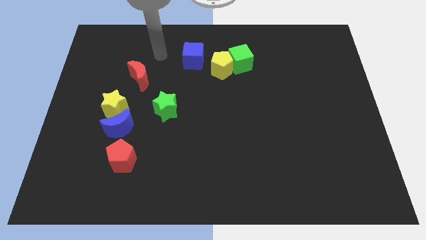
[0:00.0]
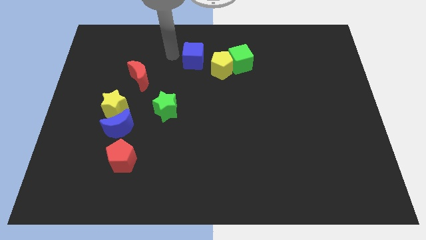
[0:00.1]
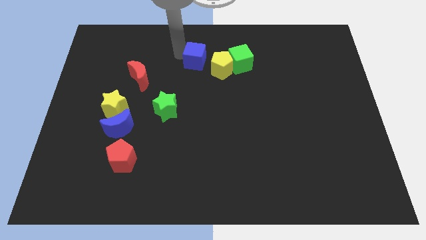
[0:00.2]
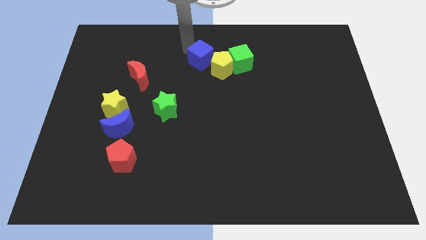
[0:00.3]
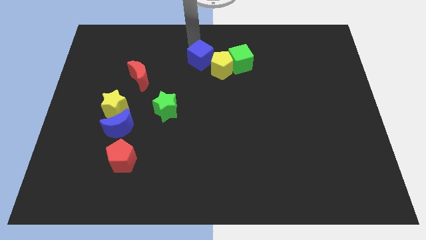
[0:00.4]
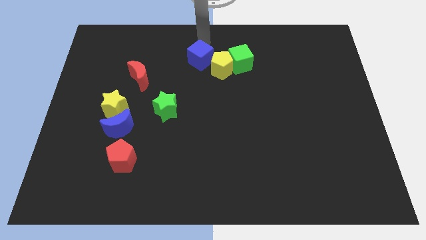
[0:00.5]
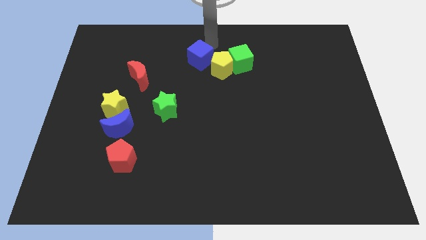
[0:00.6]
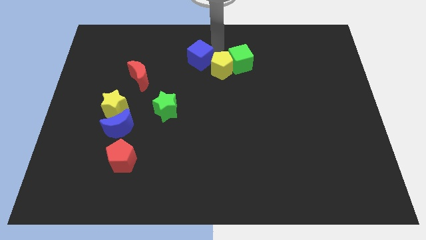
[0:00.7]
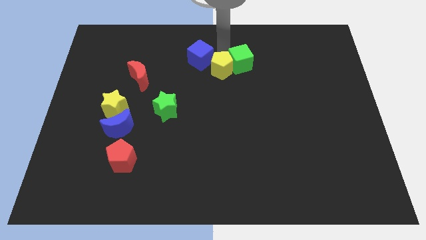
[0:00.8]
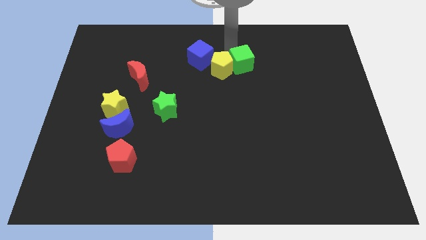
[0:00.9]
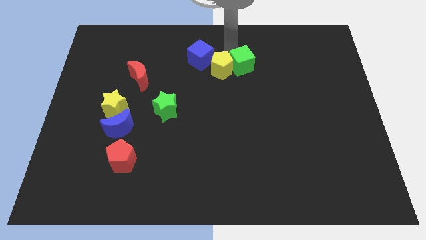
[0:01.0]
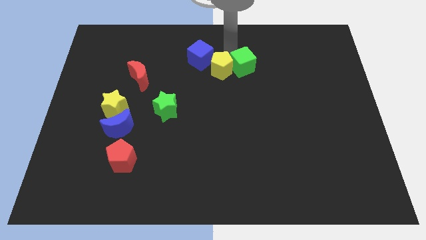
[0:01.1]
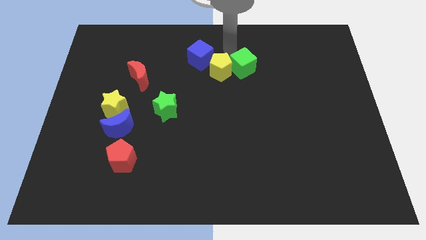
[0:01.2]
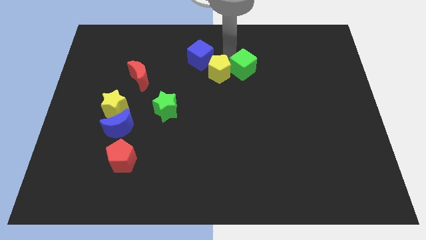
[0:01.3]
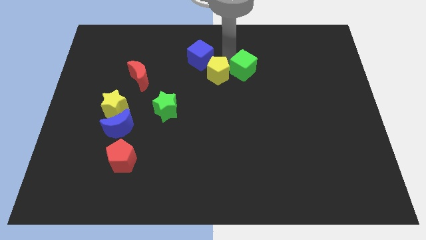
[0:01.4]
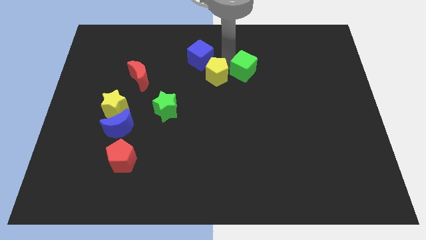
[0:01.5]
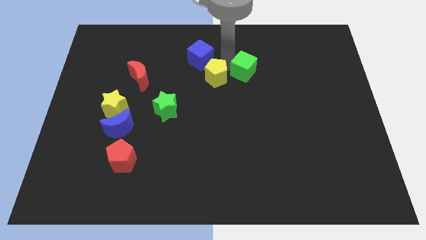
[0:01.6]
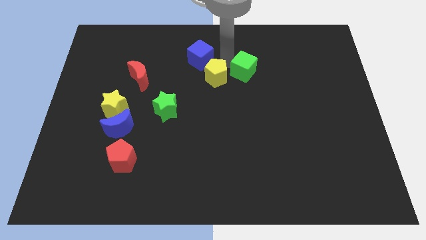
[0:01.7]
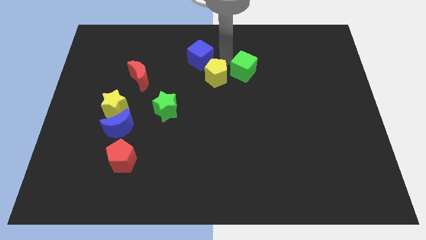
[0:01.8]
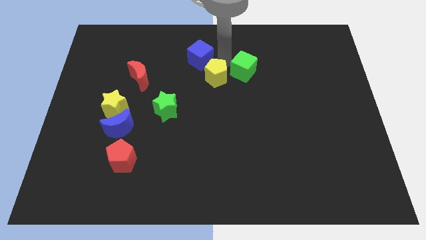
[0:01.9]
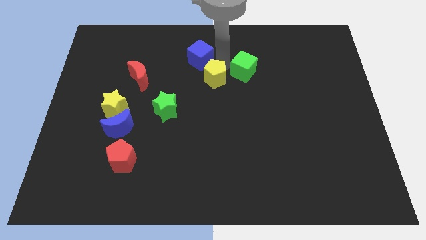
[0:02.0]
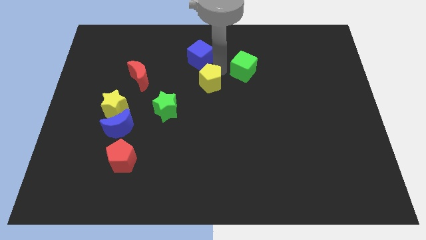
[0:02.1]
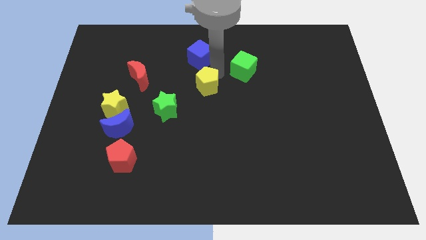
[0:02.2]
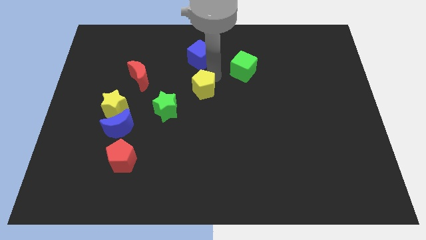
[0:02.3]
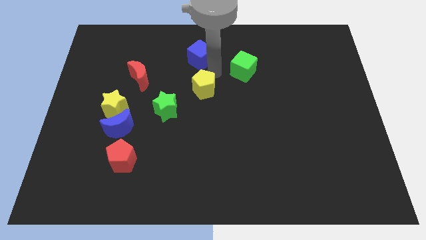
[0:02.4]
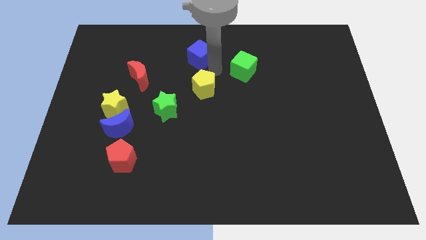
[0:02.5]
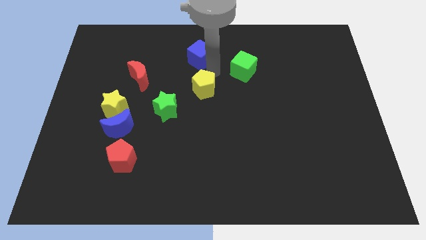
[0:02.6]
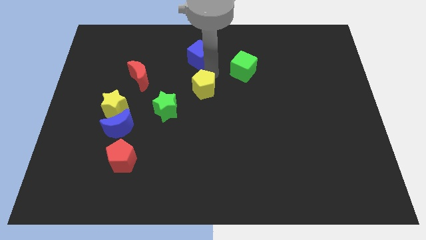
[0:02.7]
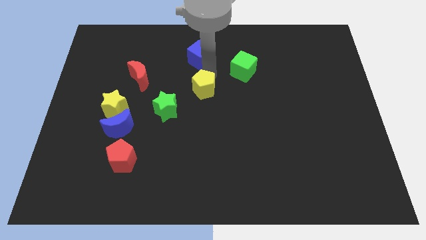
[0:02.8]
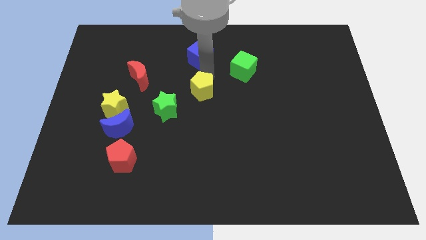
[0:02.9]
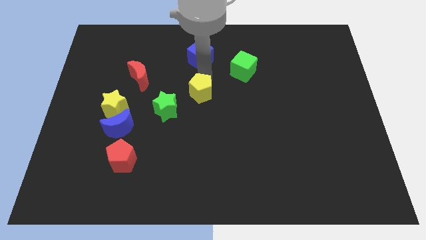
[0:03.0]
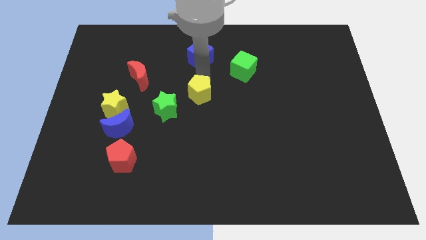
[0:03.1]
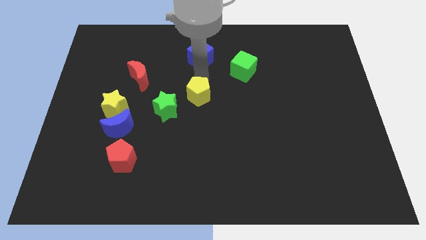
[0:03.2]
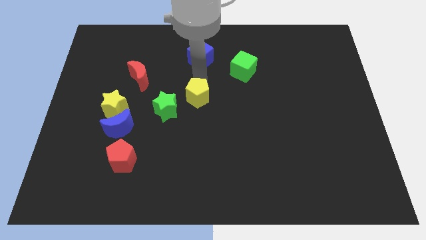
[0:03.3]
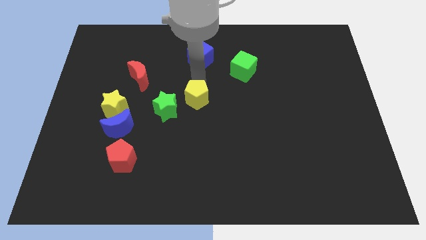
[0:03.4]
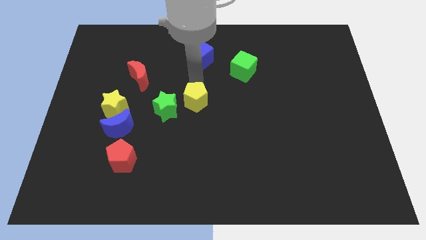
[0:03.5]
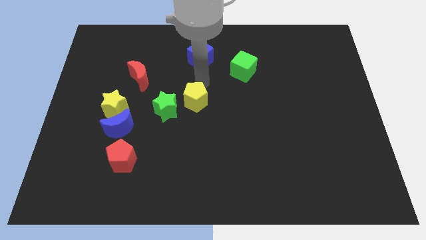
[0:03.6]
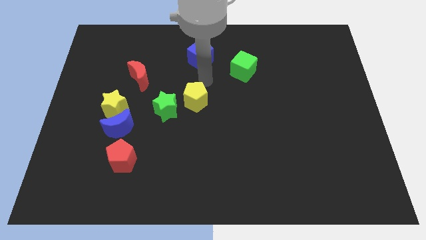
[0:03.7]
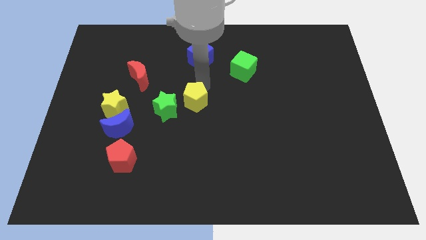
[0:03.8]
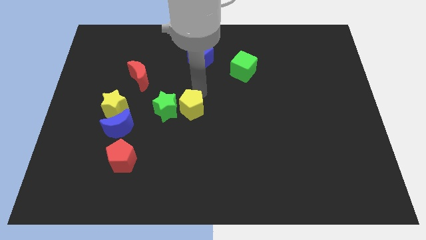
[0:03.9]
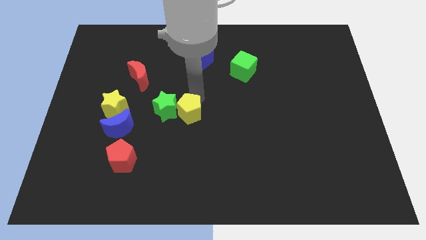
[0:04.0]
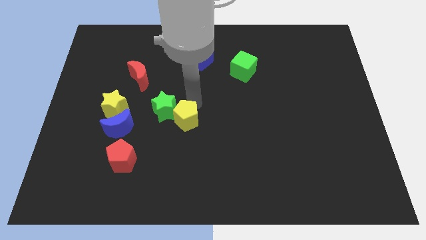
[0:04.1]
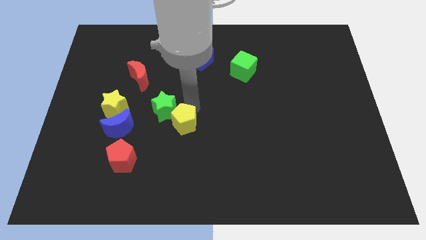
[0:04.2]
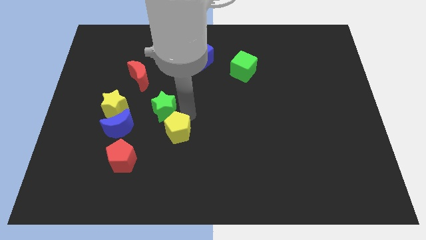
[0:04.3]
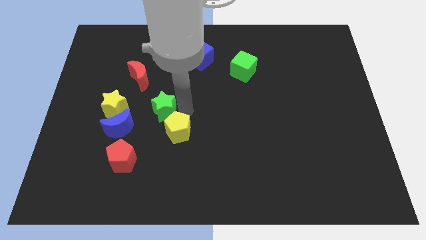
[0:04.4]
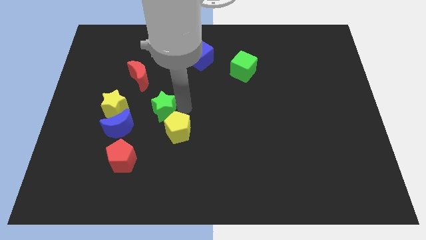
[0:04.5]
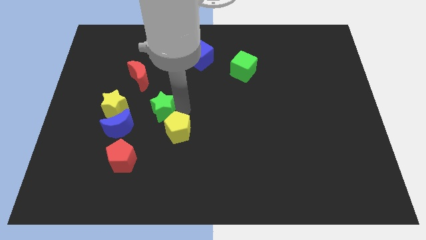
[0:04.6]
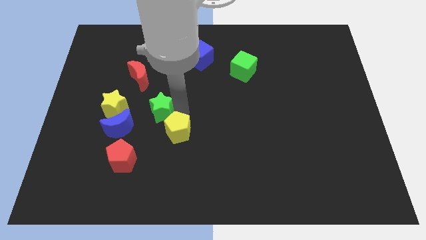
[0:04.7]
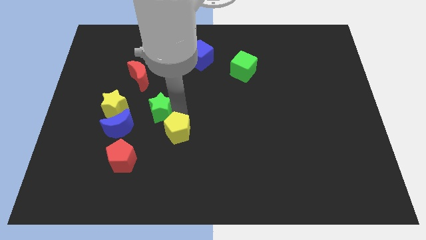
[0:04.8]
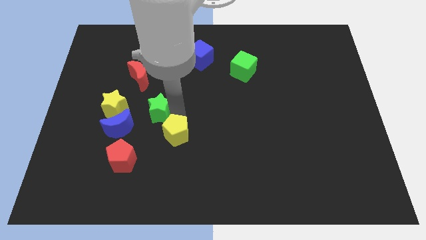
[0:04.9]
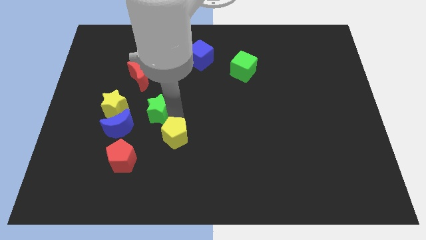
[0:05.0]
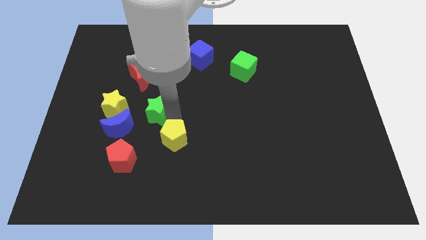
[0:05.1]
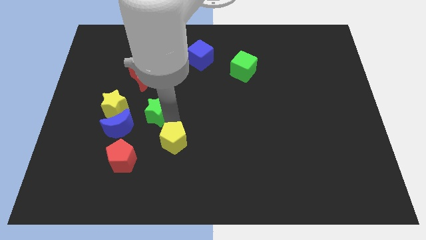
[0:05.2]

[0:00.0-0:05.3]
push the yellow pentagon to the right side of the red pentagon

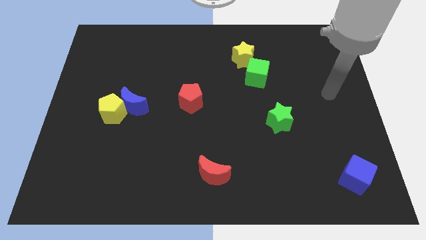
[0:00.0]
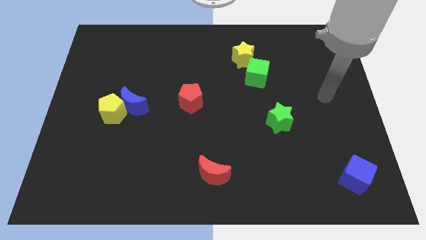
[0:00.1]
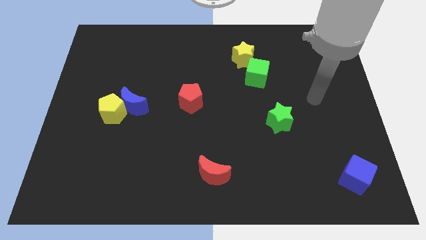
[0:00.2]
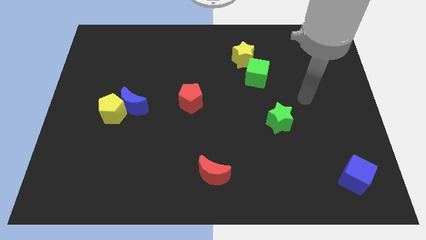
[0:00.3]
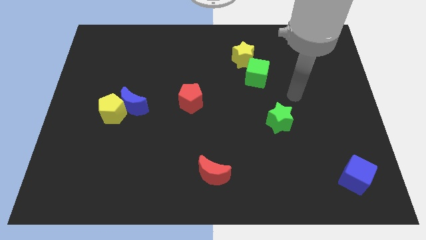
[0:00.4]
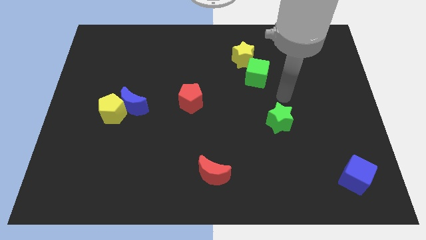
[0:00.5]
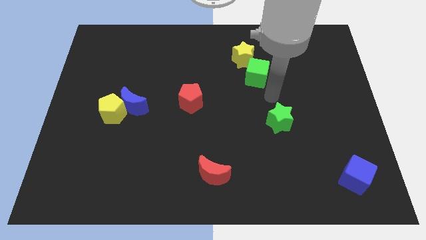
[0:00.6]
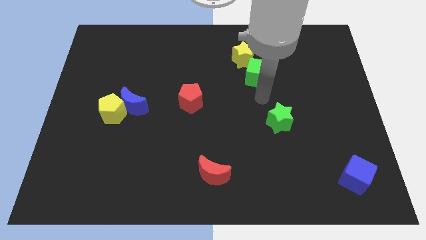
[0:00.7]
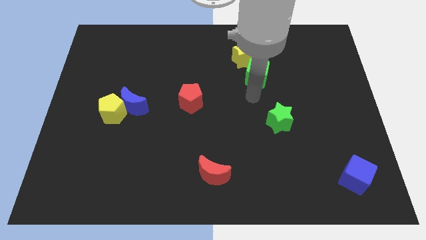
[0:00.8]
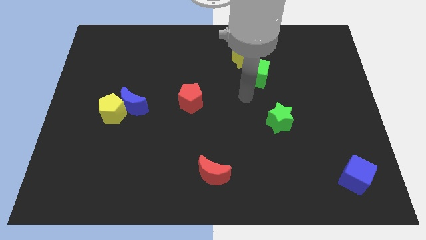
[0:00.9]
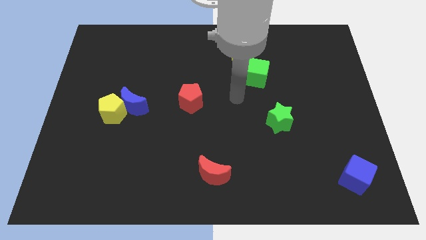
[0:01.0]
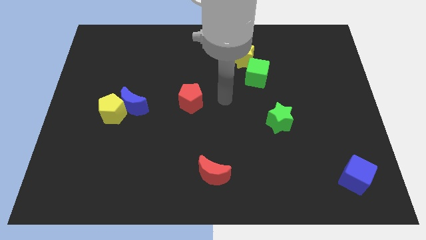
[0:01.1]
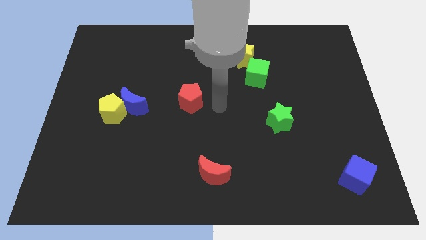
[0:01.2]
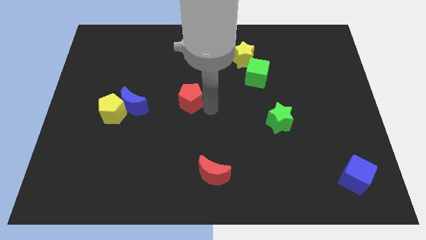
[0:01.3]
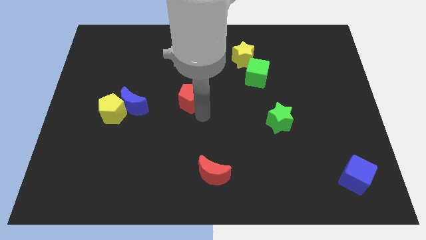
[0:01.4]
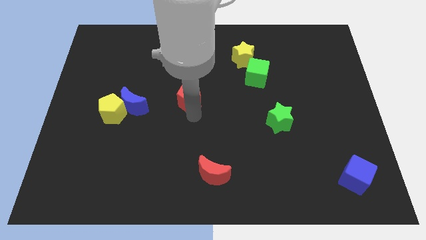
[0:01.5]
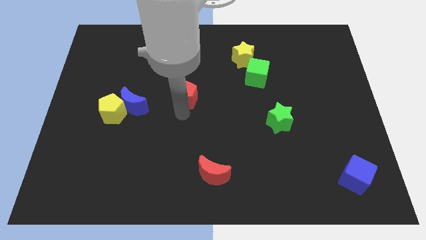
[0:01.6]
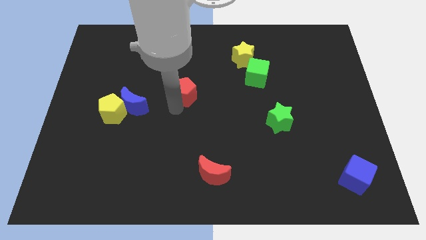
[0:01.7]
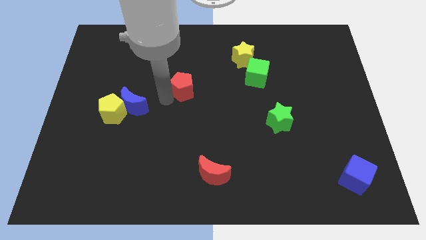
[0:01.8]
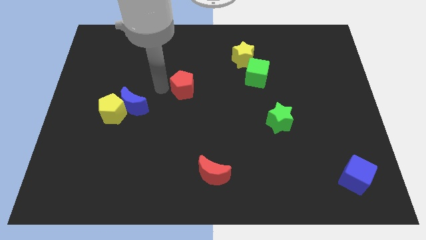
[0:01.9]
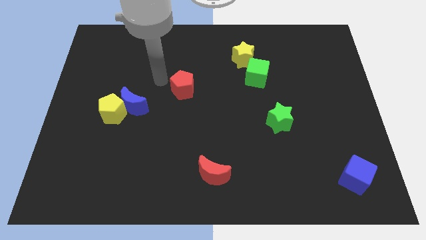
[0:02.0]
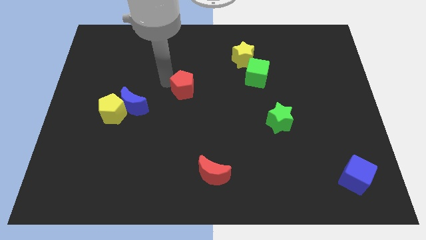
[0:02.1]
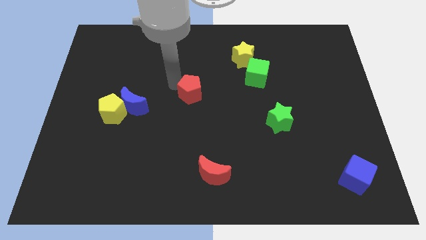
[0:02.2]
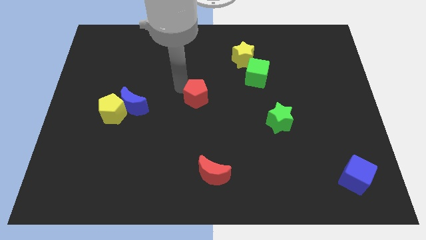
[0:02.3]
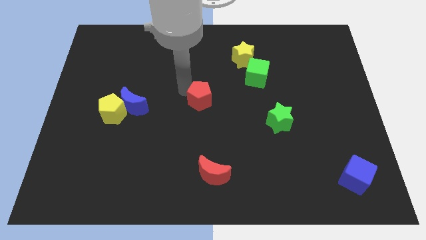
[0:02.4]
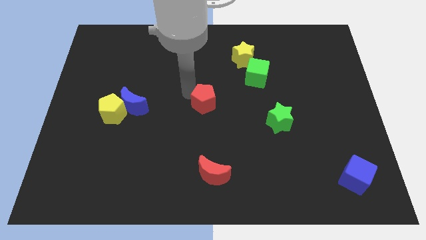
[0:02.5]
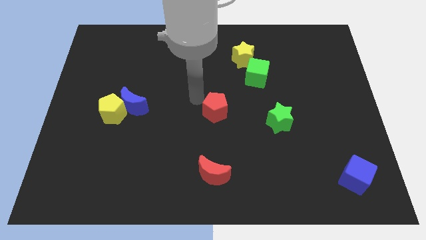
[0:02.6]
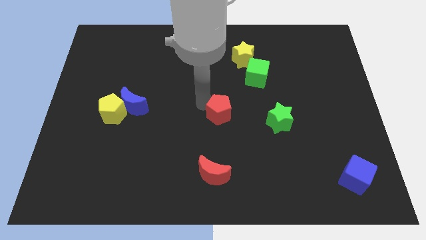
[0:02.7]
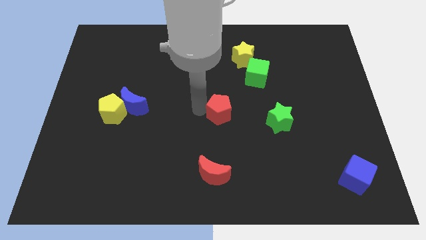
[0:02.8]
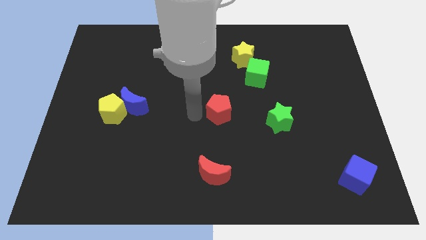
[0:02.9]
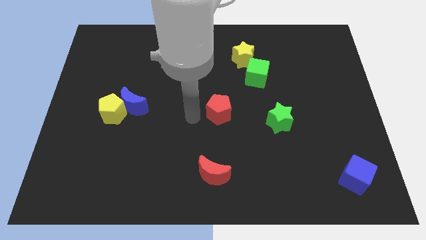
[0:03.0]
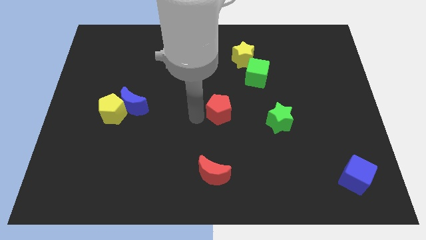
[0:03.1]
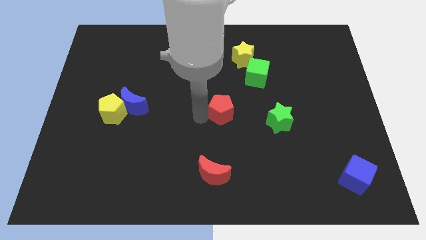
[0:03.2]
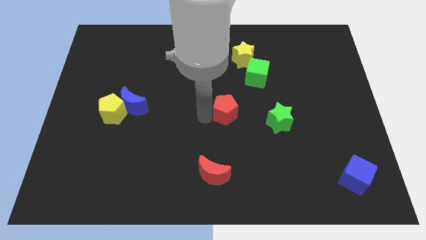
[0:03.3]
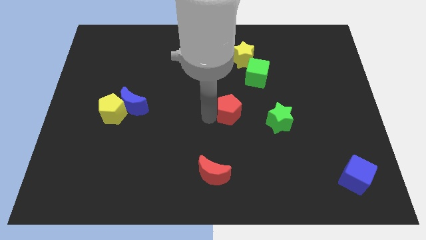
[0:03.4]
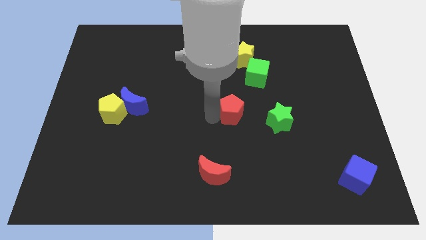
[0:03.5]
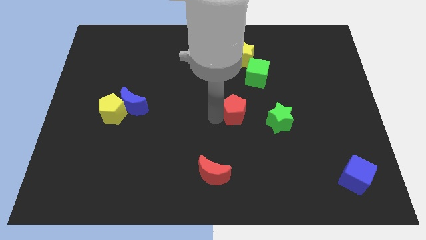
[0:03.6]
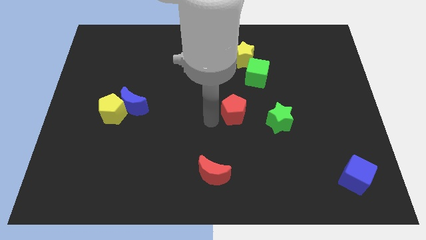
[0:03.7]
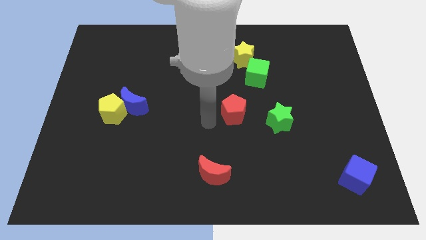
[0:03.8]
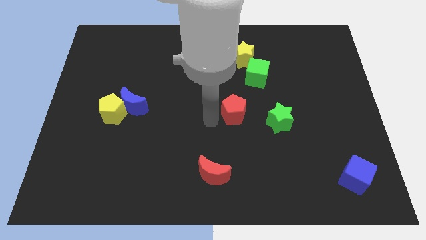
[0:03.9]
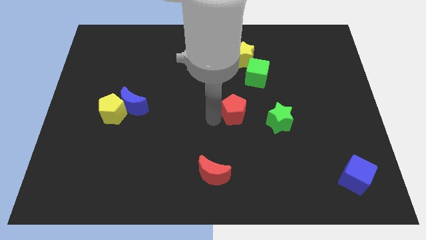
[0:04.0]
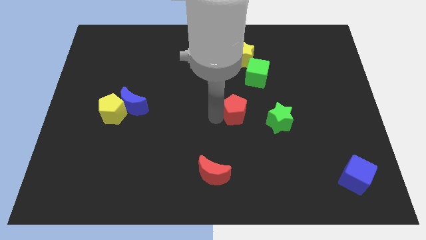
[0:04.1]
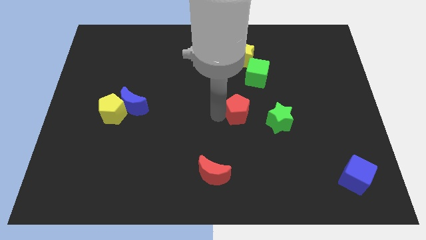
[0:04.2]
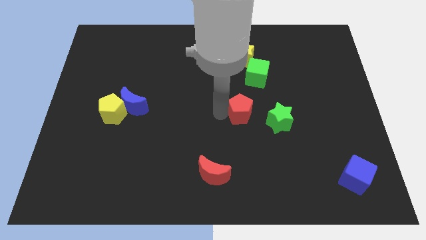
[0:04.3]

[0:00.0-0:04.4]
slide the red pentagon to the top left of the green star
